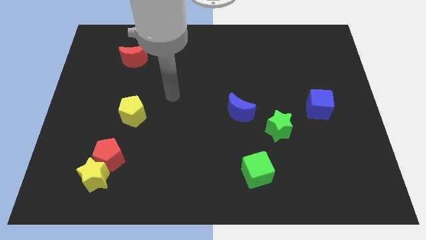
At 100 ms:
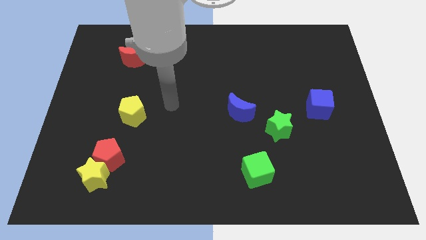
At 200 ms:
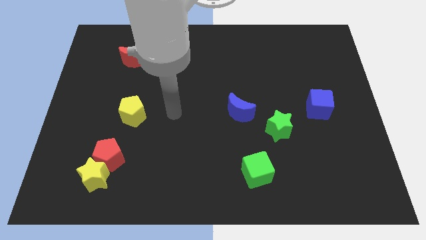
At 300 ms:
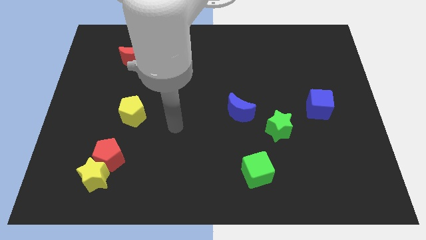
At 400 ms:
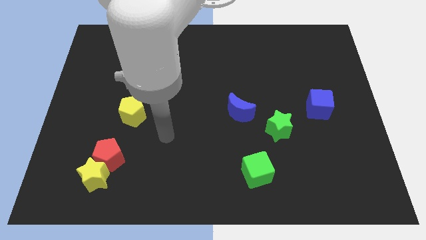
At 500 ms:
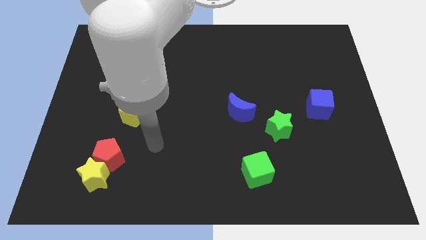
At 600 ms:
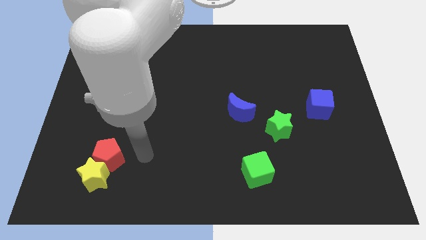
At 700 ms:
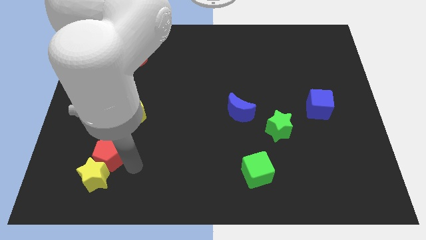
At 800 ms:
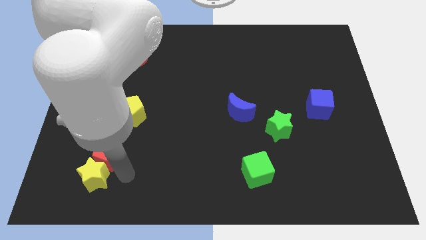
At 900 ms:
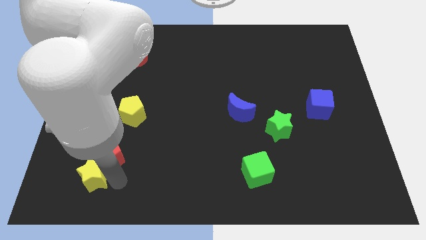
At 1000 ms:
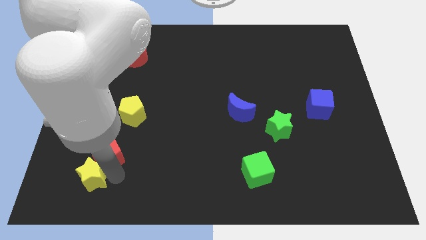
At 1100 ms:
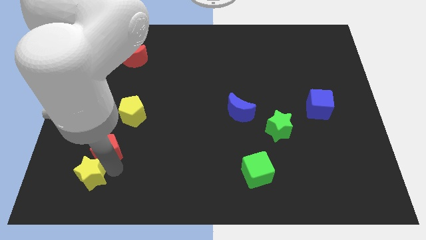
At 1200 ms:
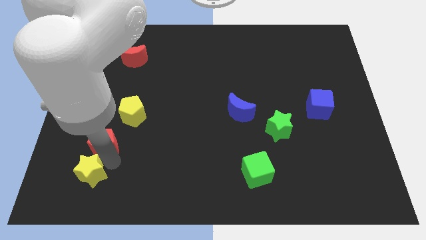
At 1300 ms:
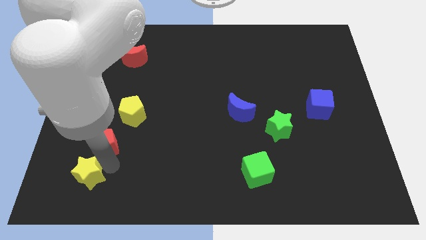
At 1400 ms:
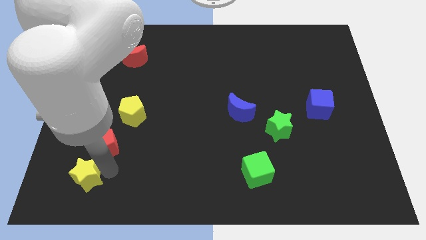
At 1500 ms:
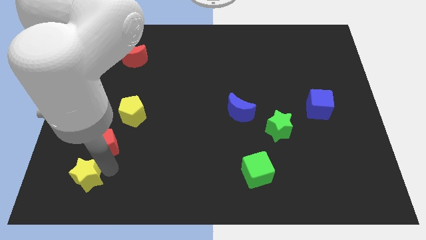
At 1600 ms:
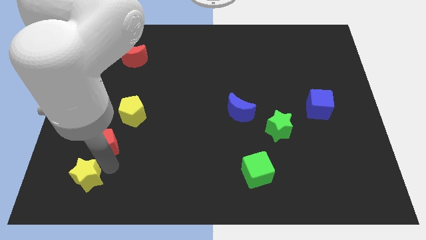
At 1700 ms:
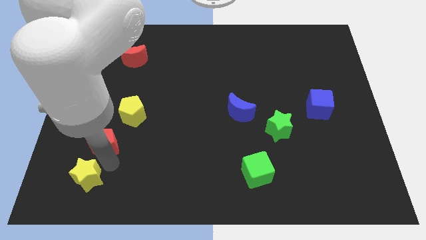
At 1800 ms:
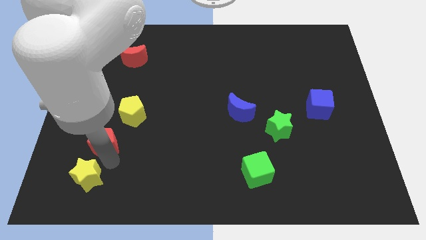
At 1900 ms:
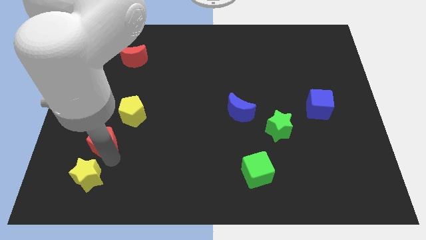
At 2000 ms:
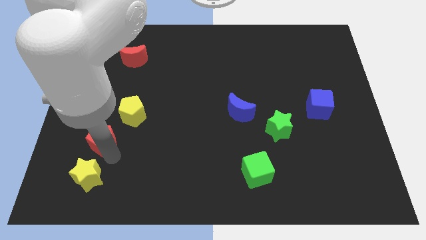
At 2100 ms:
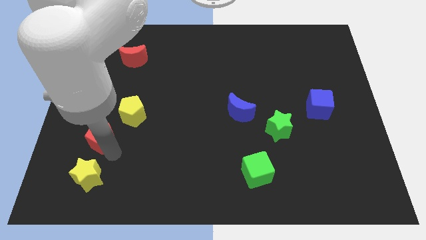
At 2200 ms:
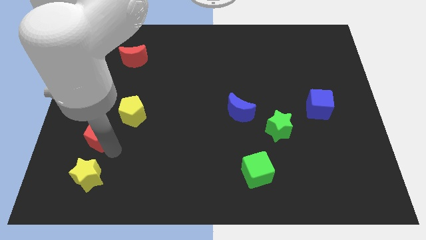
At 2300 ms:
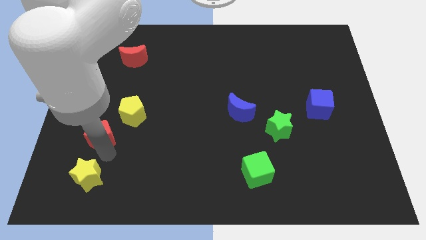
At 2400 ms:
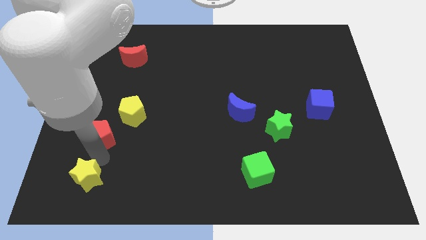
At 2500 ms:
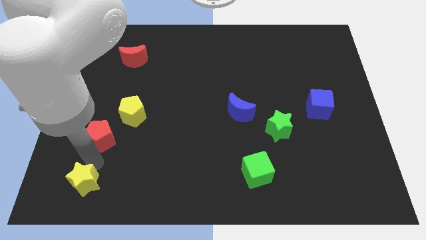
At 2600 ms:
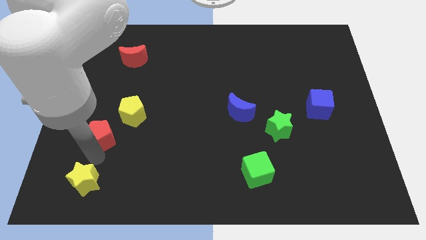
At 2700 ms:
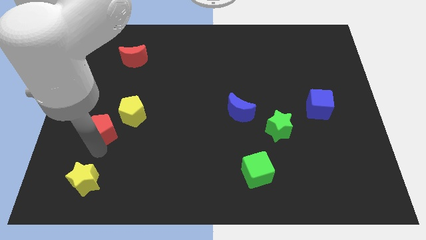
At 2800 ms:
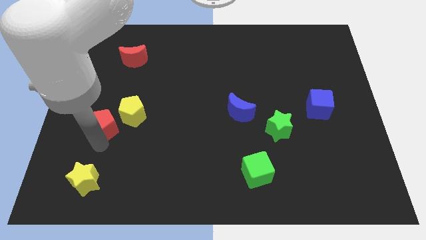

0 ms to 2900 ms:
slide the red pentagon upwards a bit

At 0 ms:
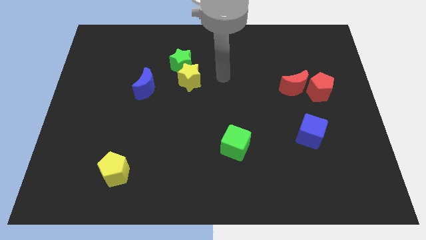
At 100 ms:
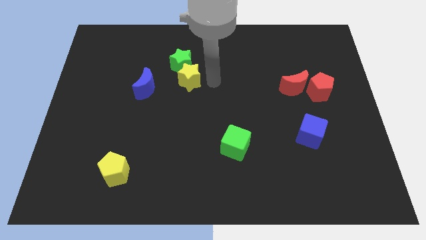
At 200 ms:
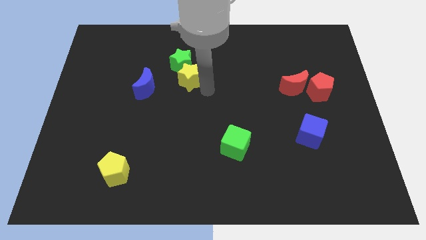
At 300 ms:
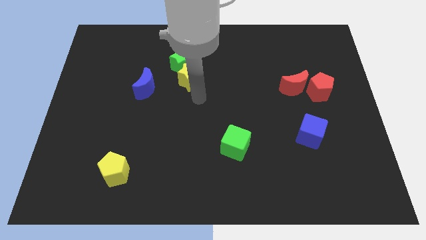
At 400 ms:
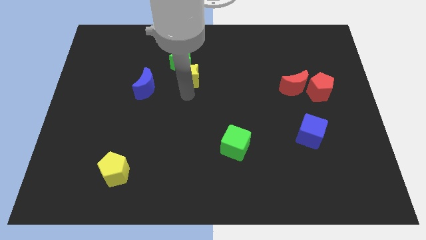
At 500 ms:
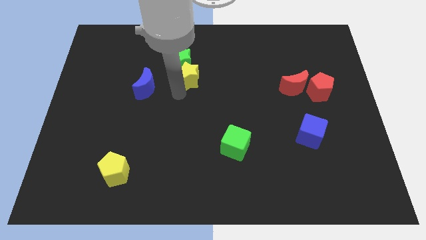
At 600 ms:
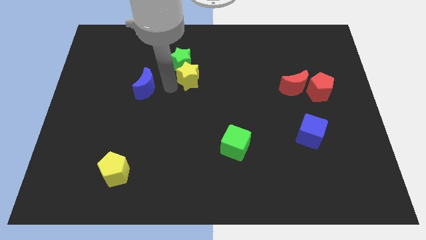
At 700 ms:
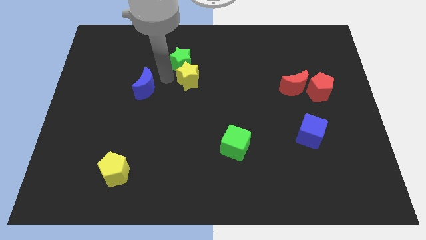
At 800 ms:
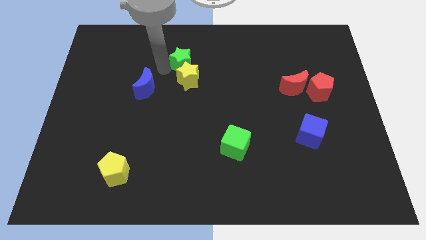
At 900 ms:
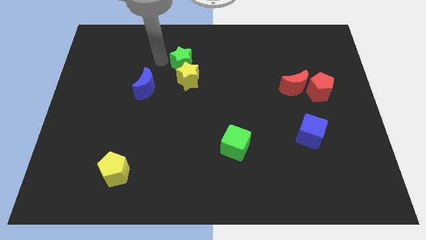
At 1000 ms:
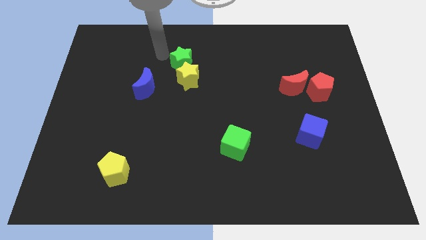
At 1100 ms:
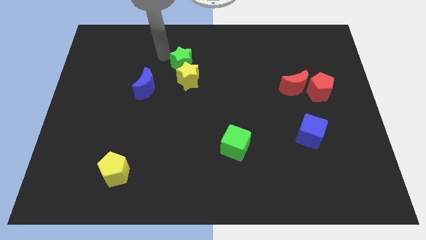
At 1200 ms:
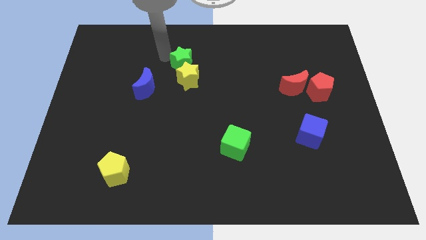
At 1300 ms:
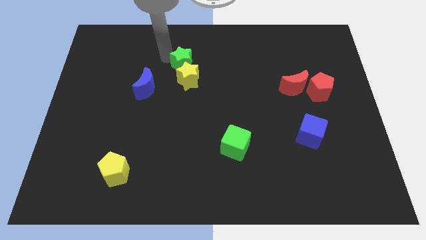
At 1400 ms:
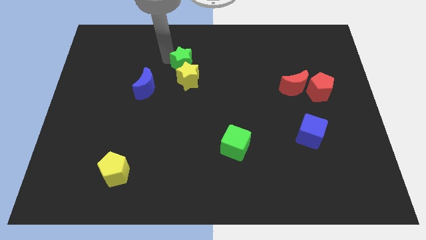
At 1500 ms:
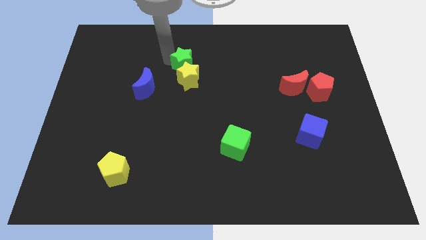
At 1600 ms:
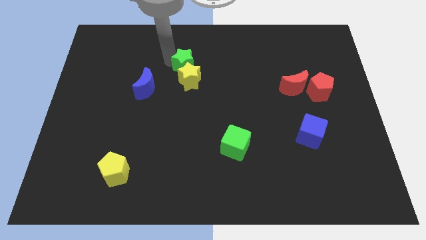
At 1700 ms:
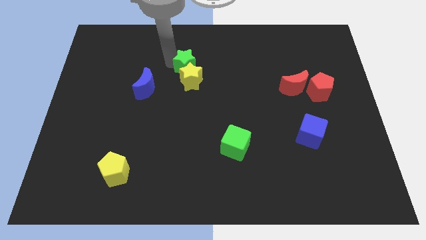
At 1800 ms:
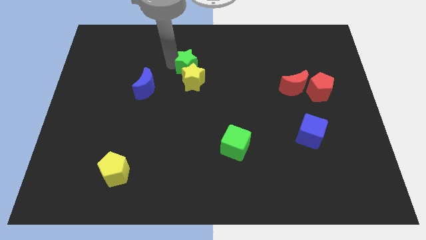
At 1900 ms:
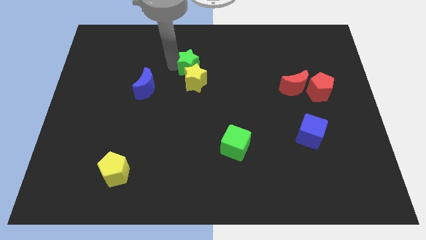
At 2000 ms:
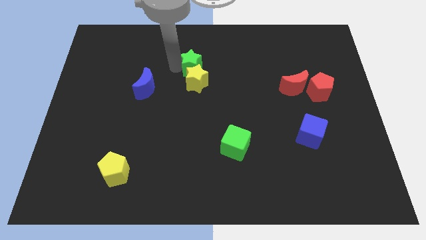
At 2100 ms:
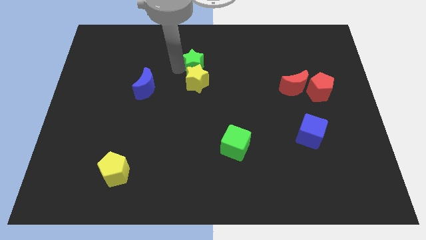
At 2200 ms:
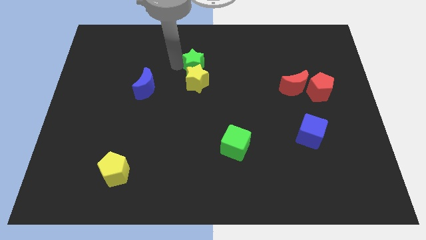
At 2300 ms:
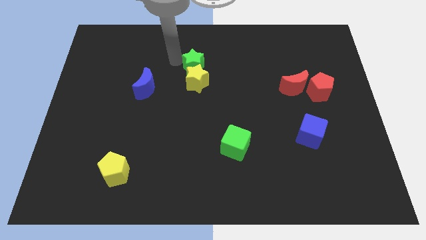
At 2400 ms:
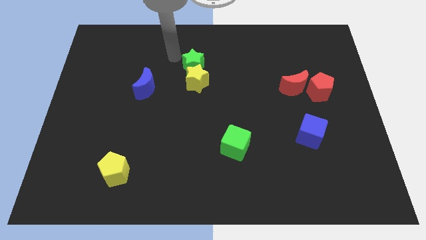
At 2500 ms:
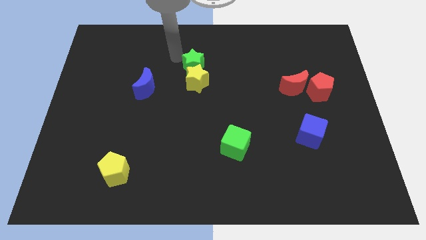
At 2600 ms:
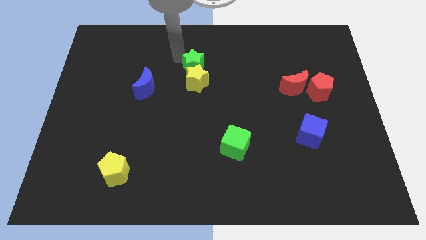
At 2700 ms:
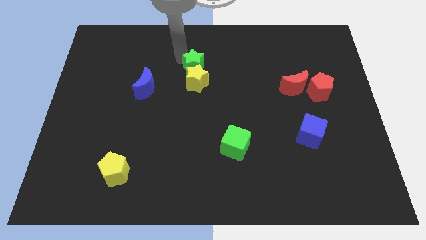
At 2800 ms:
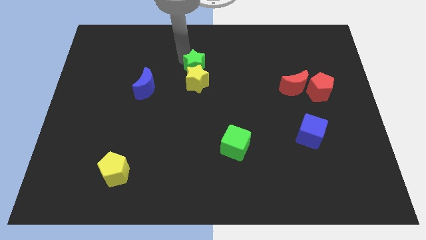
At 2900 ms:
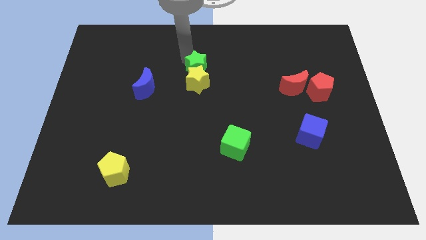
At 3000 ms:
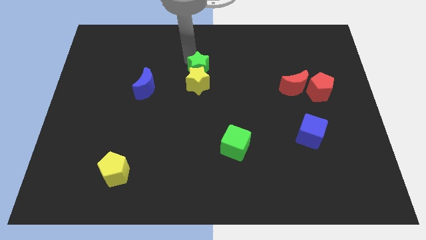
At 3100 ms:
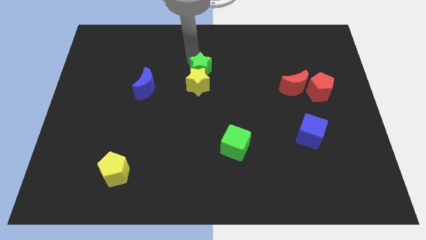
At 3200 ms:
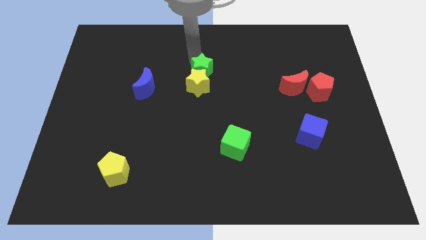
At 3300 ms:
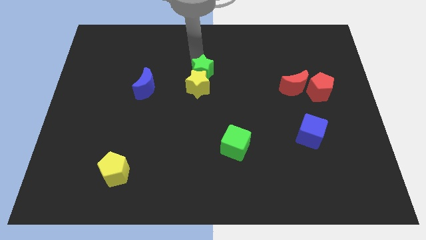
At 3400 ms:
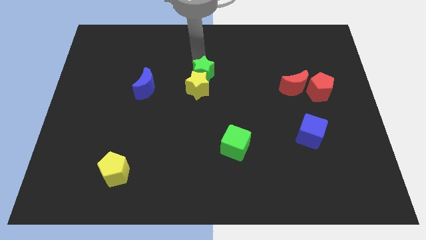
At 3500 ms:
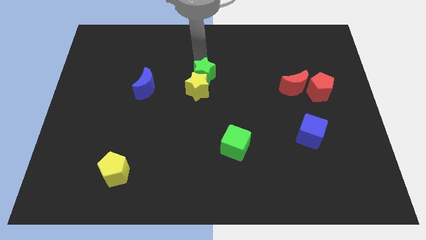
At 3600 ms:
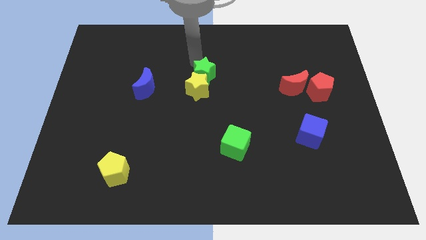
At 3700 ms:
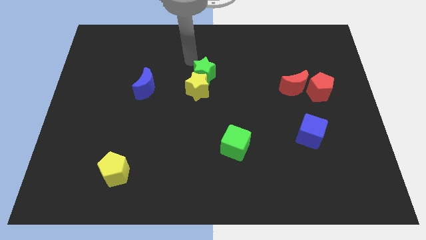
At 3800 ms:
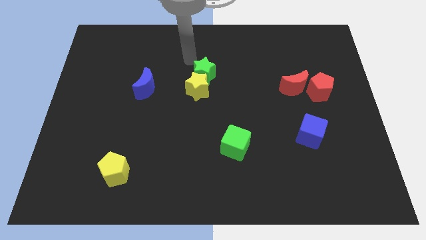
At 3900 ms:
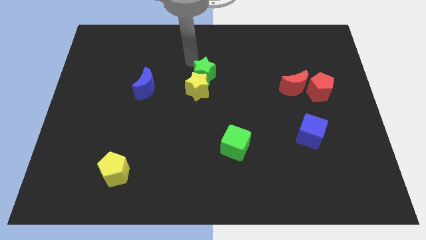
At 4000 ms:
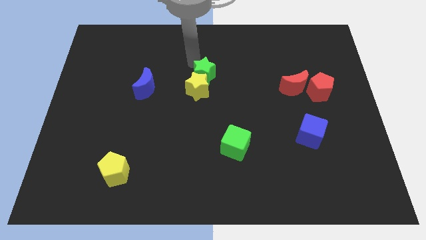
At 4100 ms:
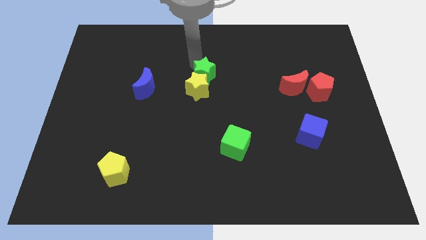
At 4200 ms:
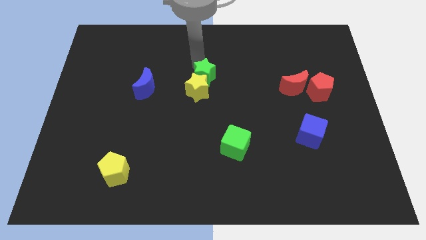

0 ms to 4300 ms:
move the green star slightly diagonally down and to the right

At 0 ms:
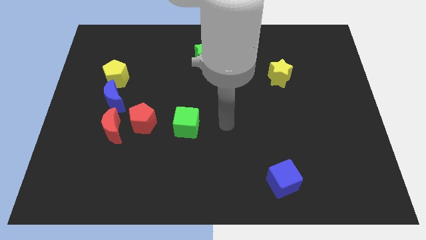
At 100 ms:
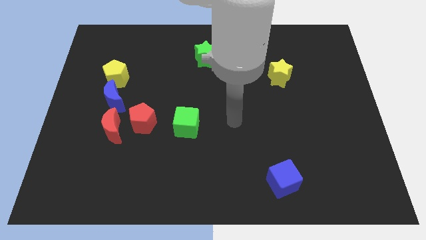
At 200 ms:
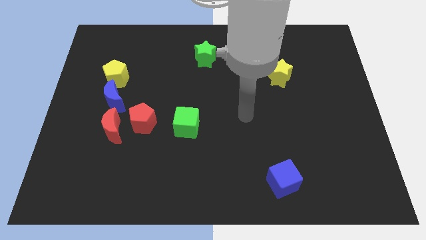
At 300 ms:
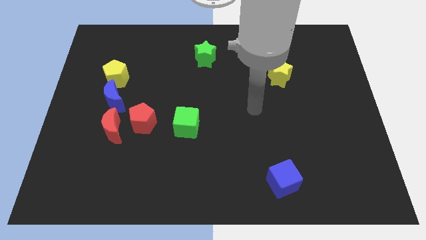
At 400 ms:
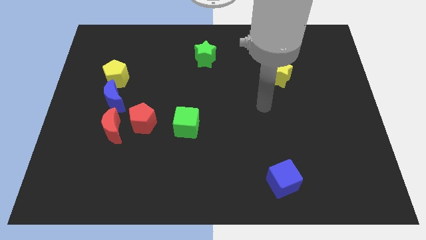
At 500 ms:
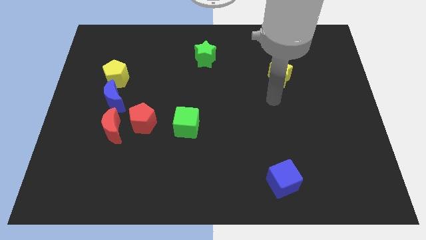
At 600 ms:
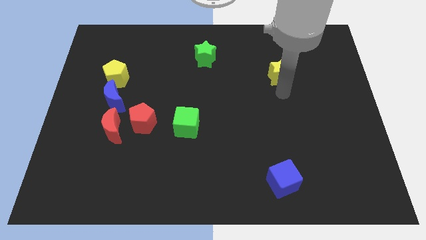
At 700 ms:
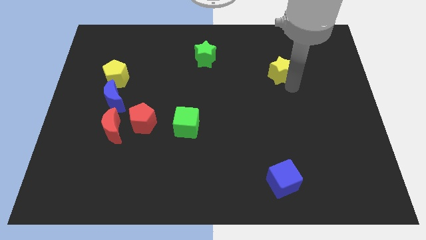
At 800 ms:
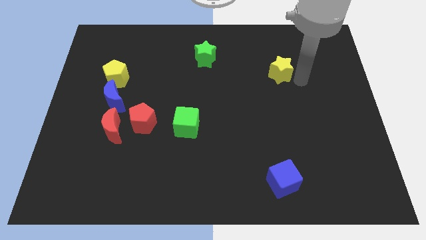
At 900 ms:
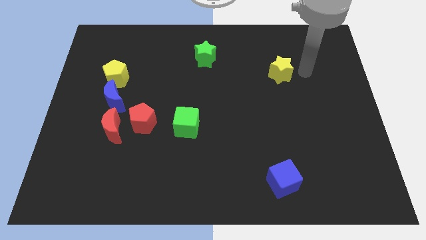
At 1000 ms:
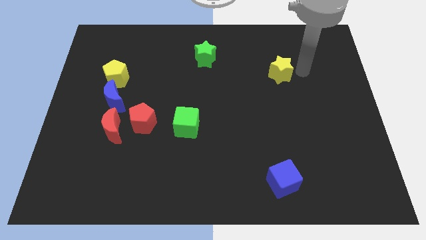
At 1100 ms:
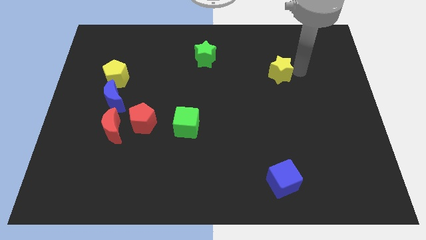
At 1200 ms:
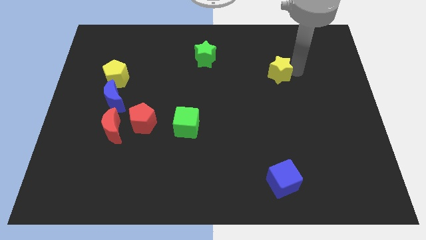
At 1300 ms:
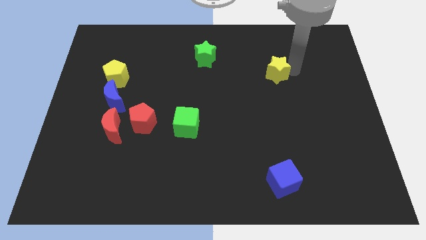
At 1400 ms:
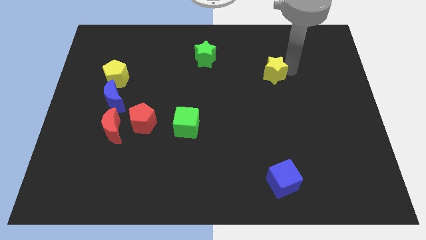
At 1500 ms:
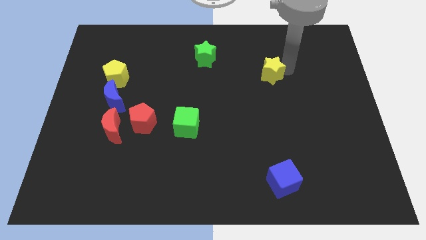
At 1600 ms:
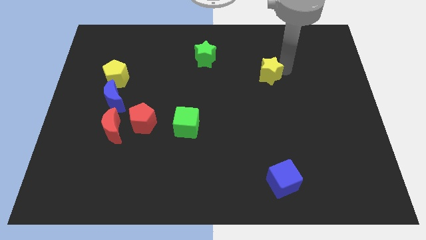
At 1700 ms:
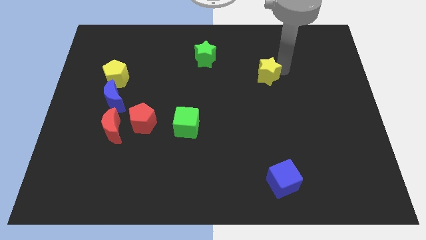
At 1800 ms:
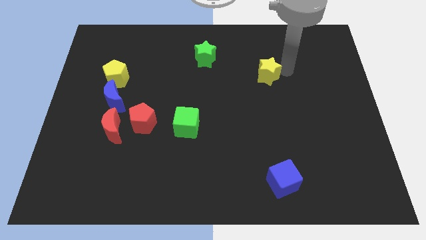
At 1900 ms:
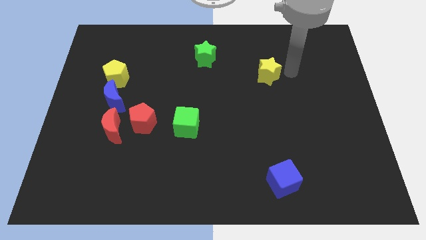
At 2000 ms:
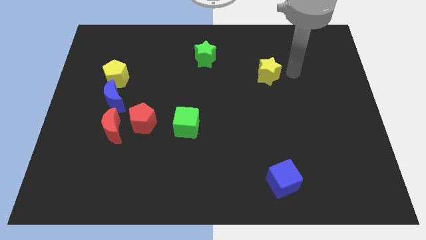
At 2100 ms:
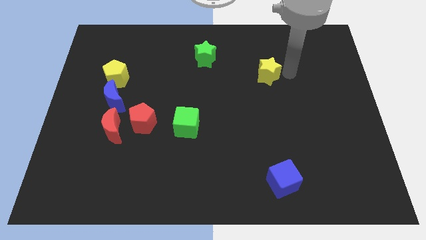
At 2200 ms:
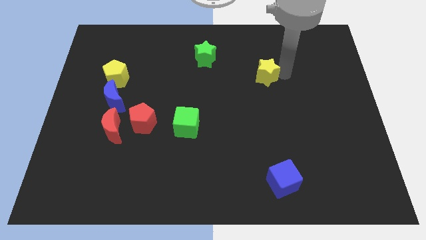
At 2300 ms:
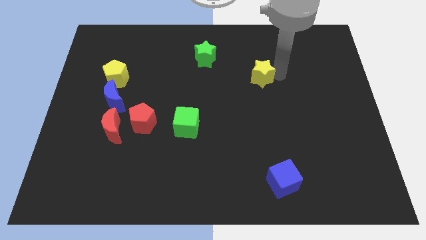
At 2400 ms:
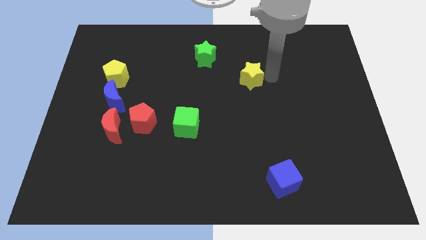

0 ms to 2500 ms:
slide the yellow star a little bit left
